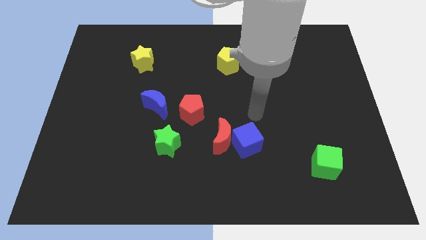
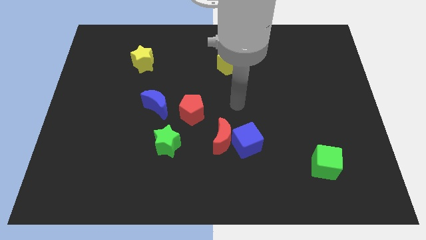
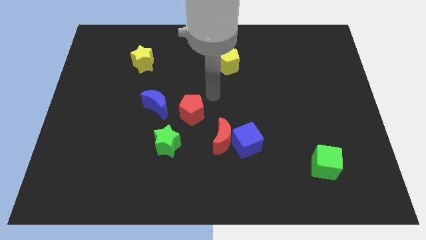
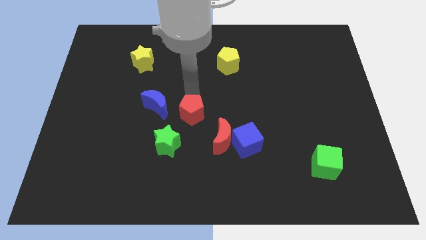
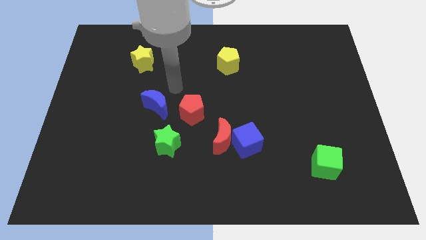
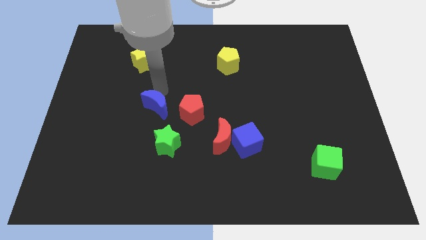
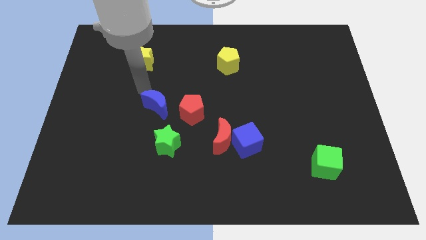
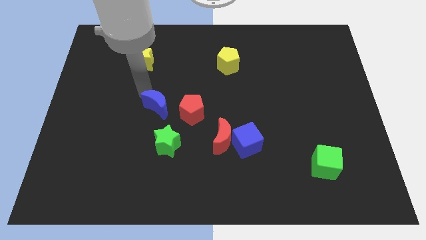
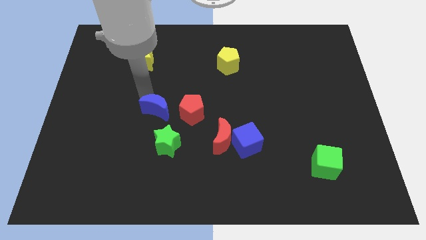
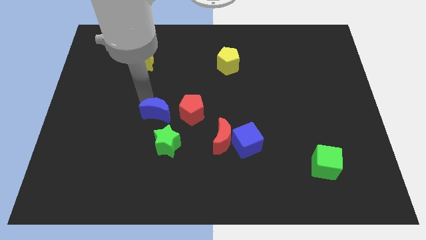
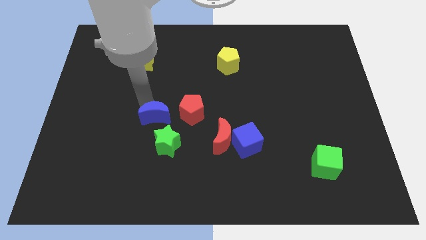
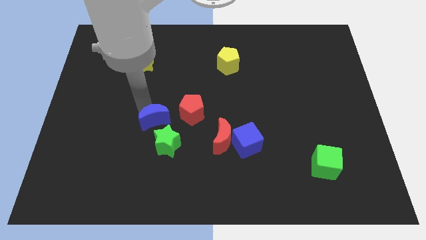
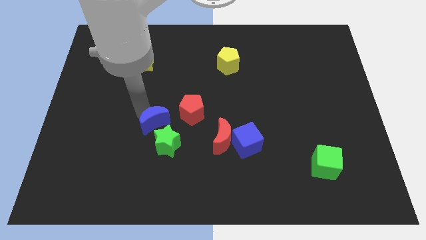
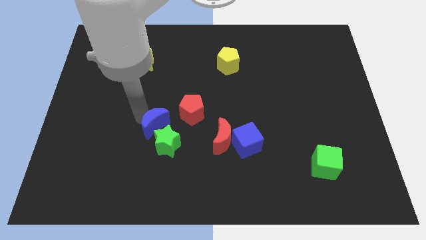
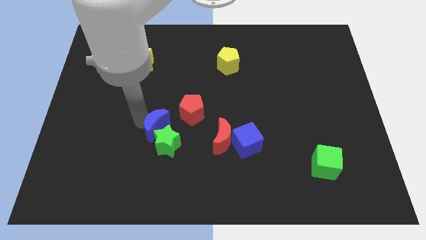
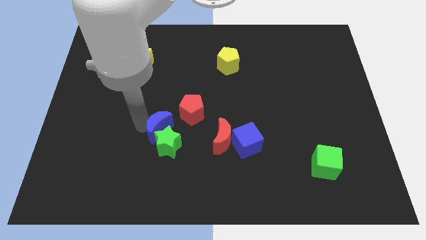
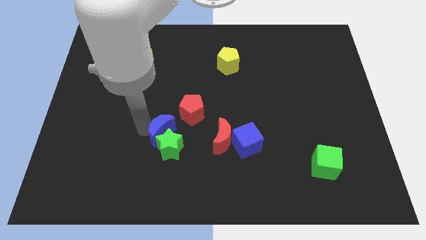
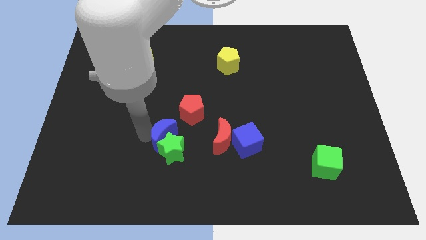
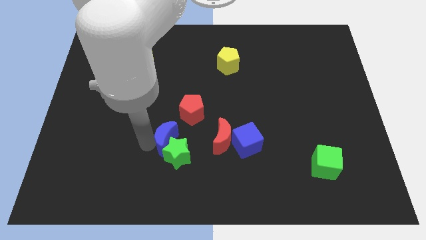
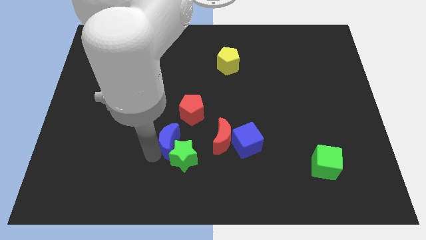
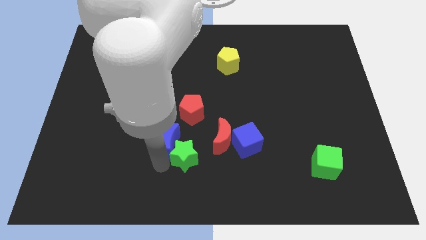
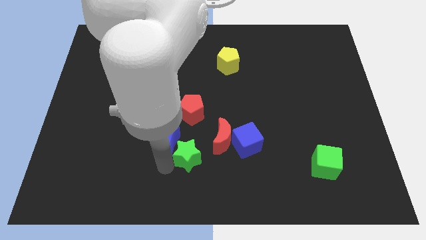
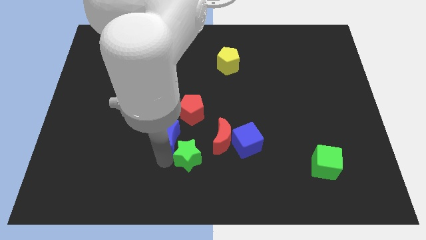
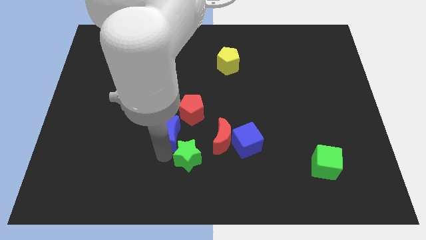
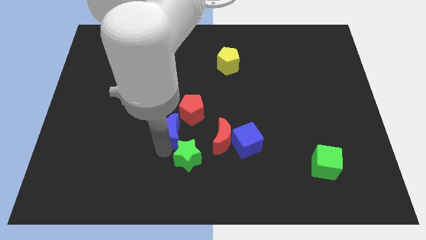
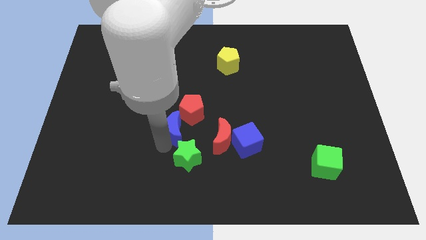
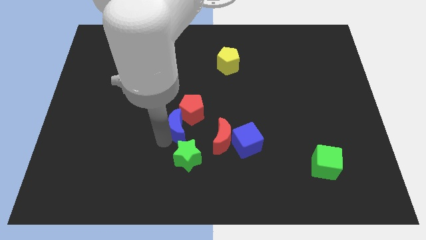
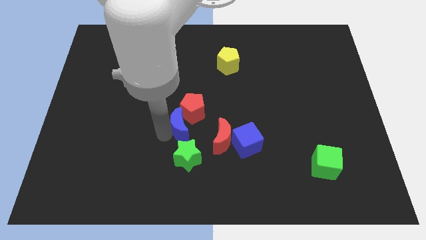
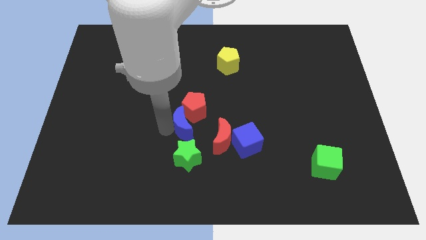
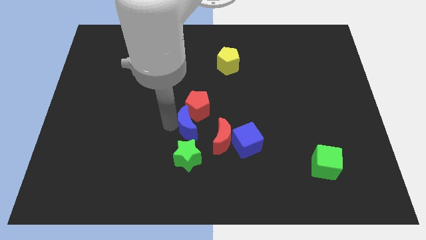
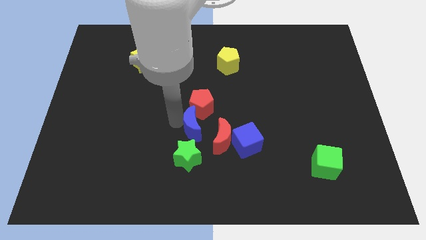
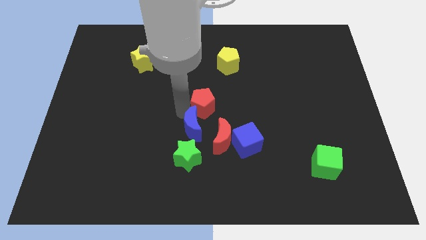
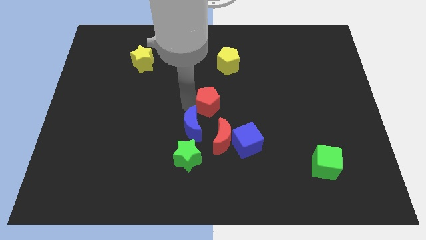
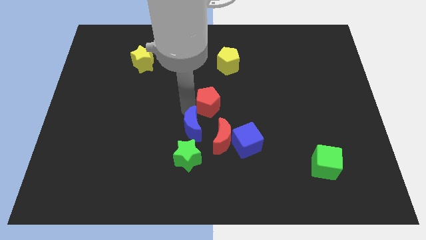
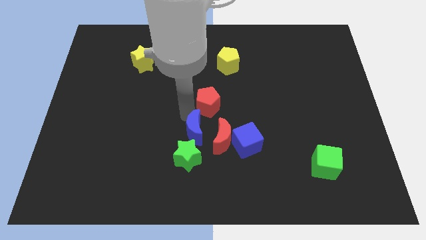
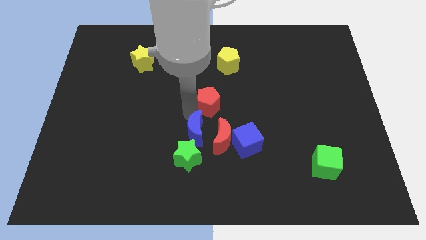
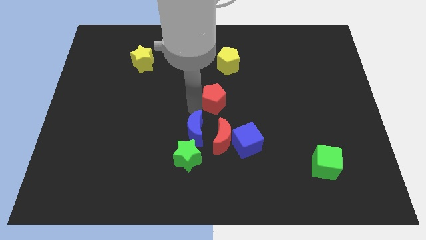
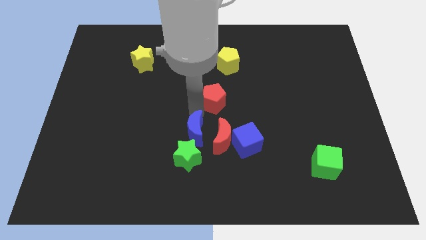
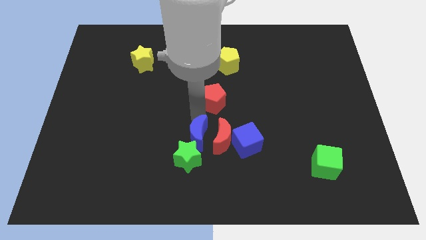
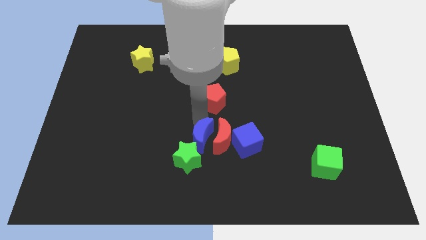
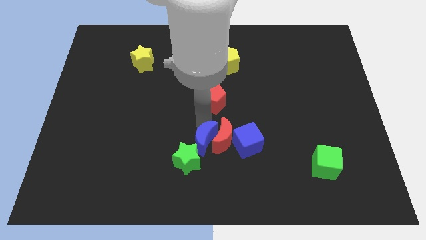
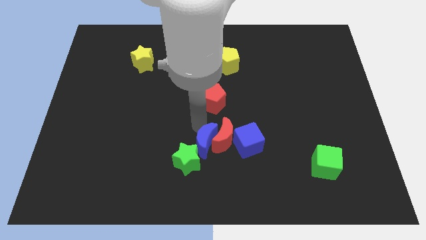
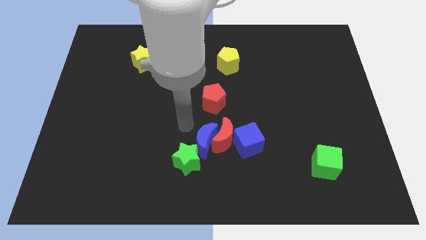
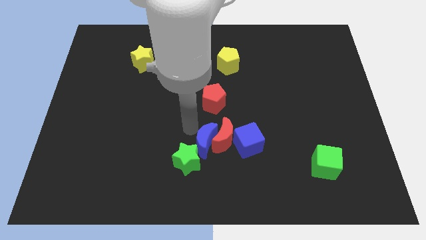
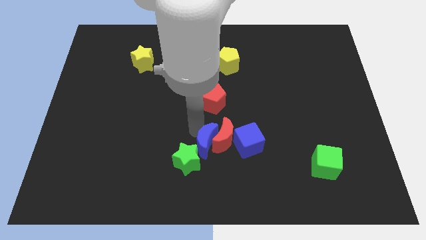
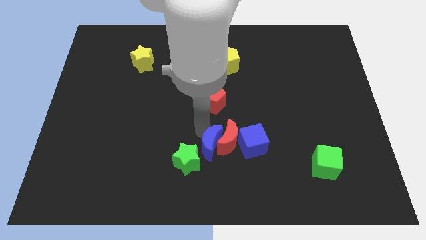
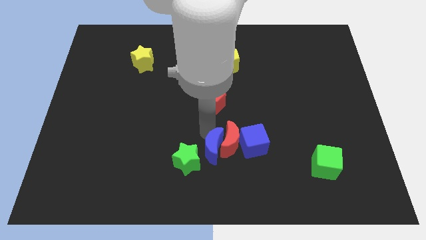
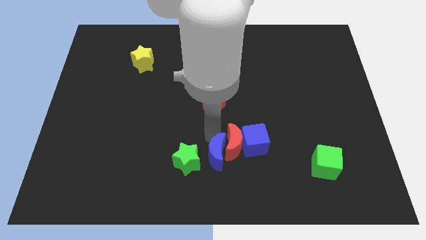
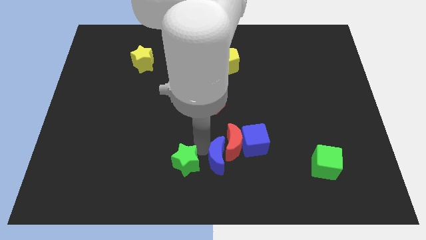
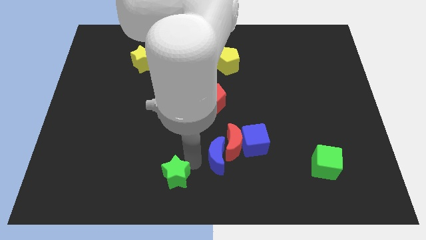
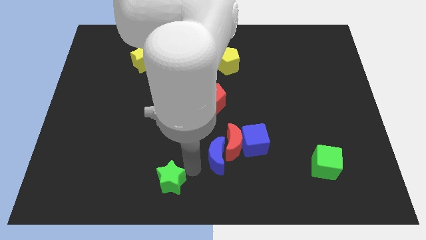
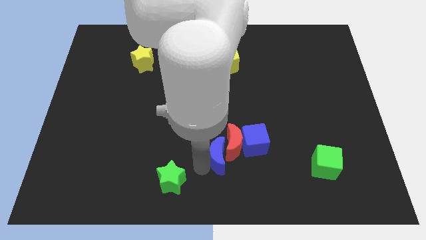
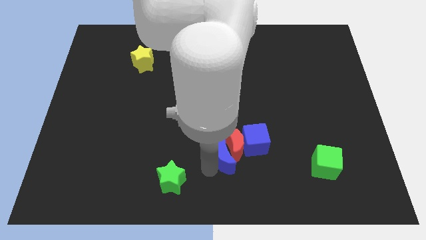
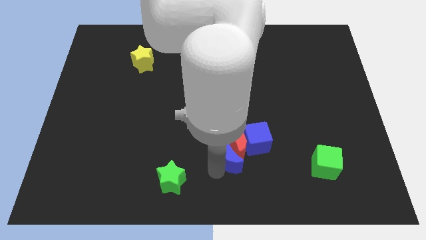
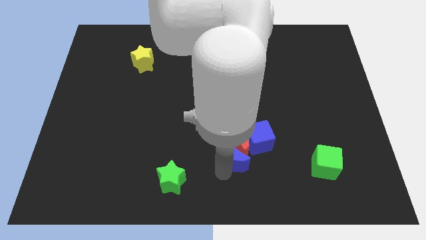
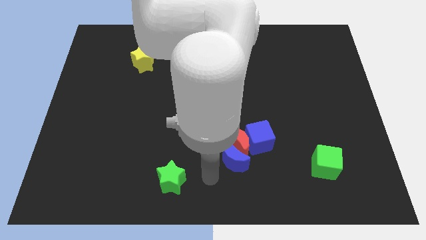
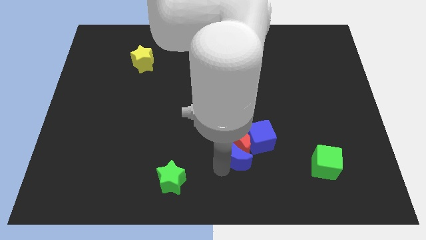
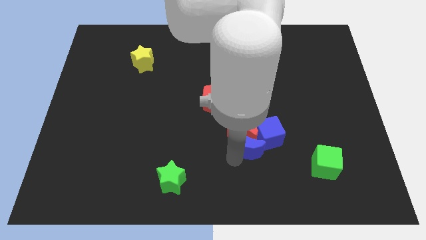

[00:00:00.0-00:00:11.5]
push the blue moon towards the blue cube
